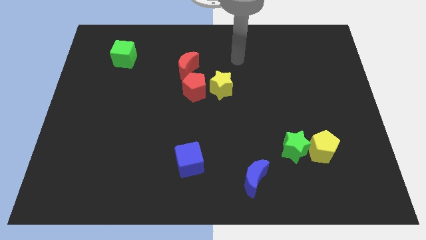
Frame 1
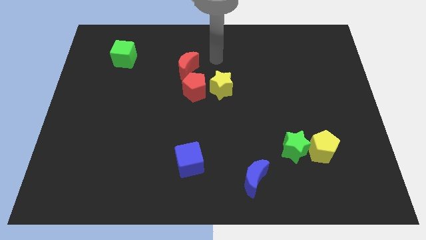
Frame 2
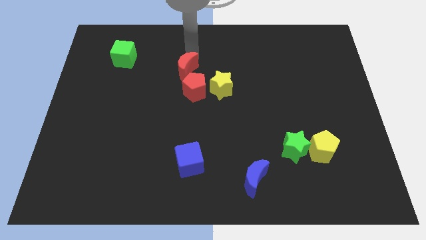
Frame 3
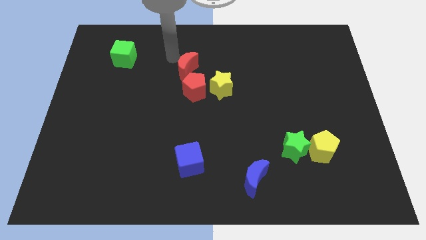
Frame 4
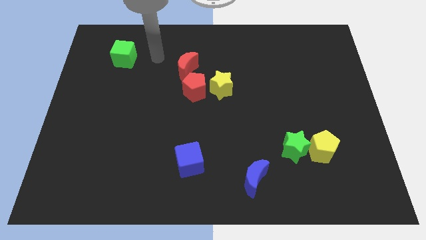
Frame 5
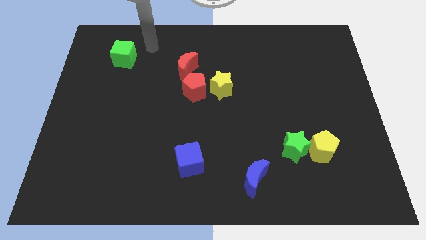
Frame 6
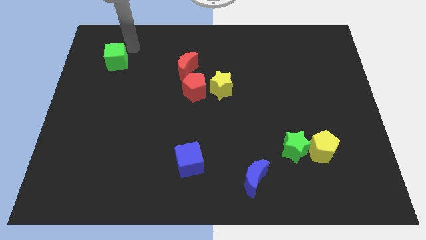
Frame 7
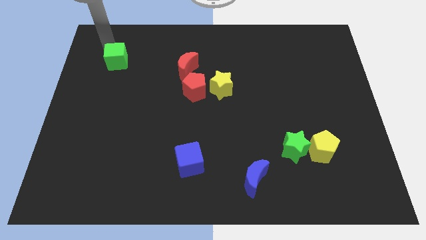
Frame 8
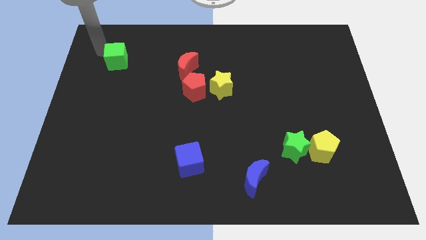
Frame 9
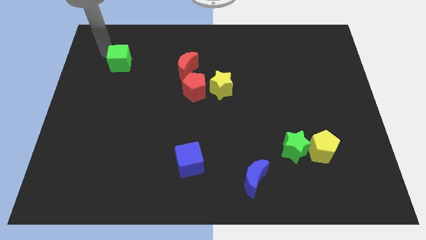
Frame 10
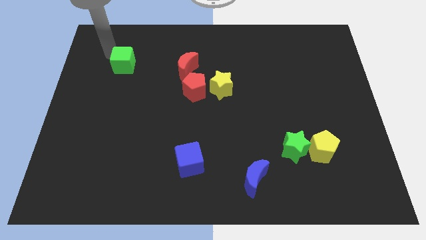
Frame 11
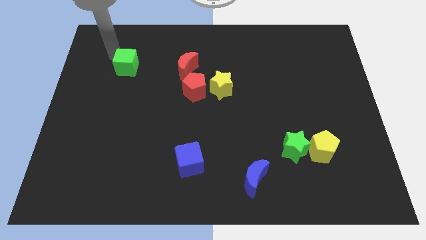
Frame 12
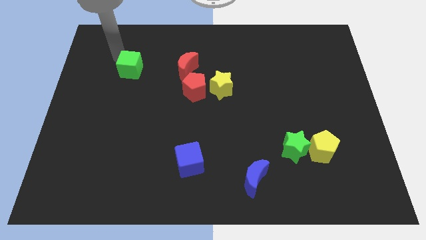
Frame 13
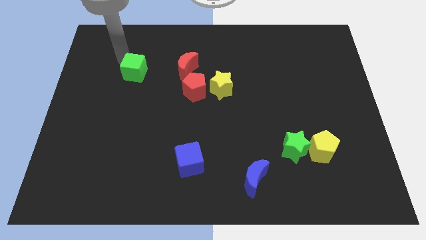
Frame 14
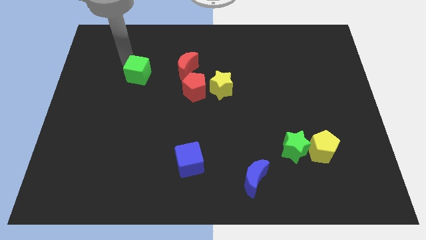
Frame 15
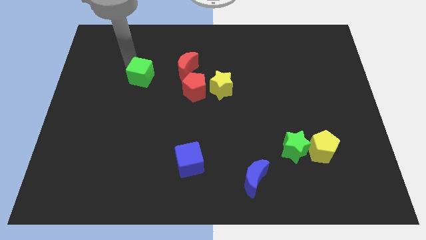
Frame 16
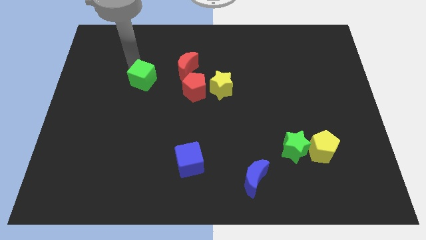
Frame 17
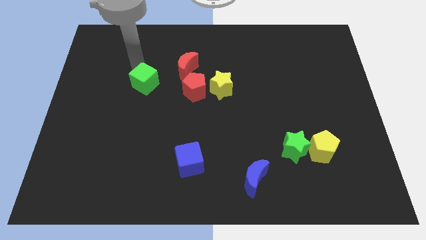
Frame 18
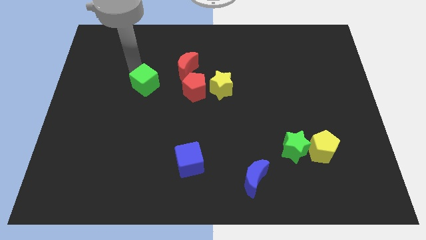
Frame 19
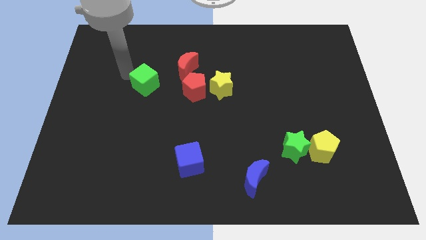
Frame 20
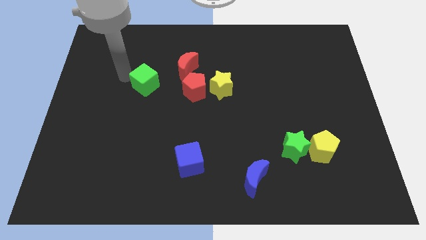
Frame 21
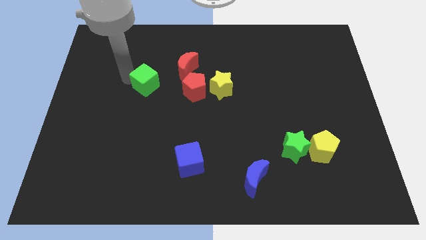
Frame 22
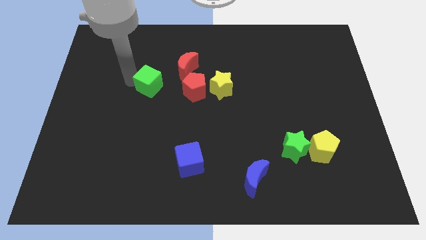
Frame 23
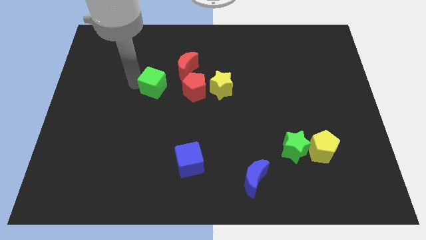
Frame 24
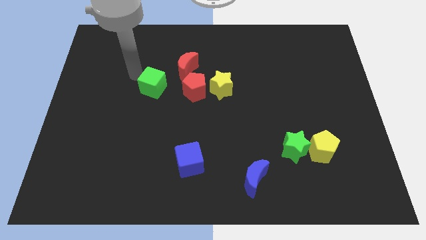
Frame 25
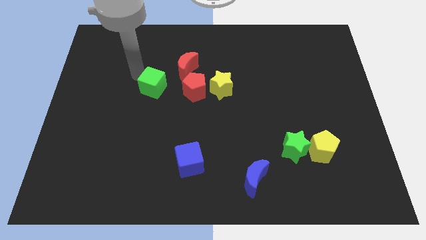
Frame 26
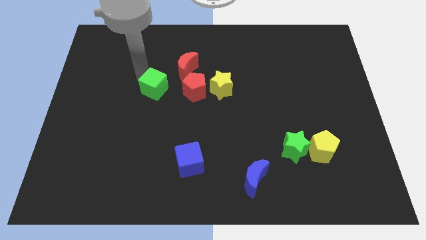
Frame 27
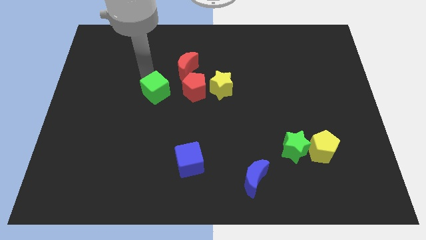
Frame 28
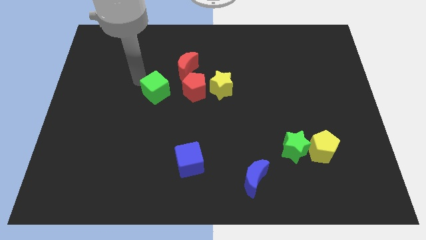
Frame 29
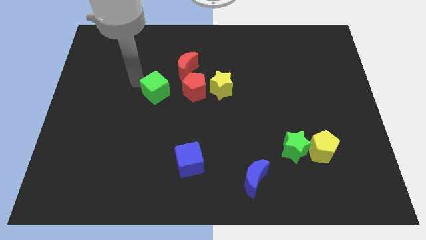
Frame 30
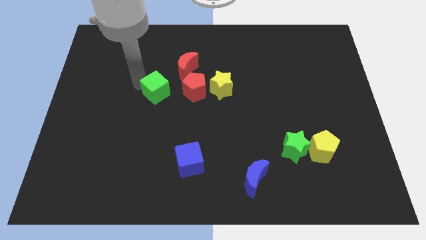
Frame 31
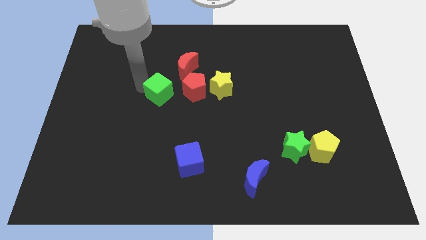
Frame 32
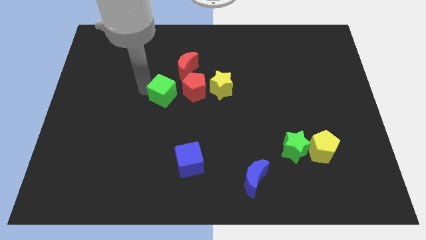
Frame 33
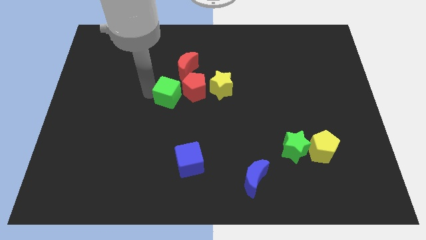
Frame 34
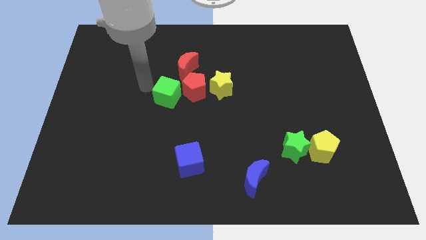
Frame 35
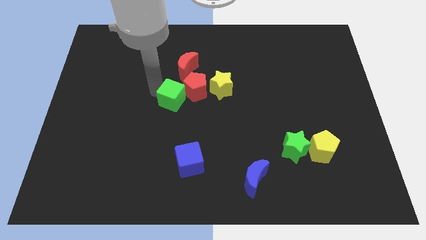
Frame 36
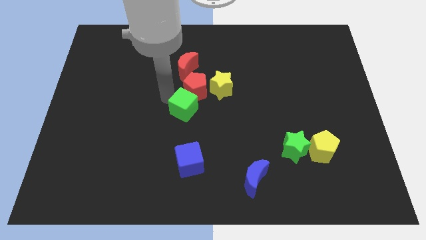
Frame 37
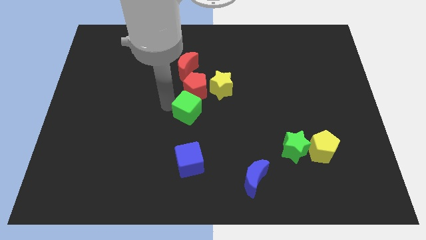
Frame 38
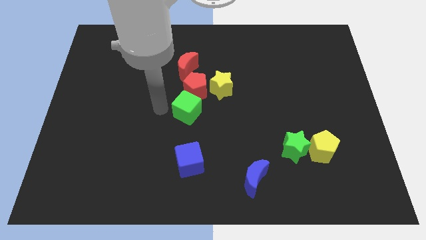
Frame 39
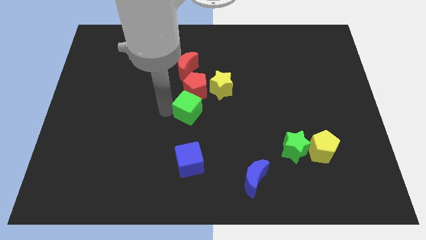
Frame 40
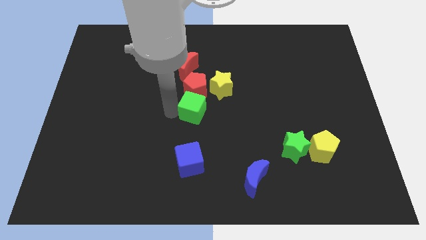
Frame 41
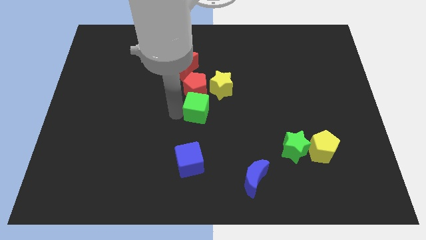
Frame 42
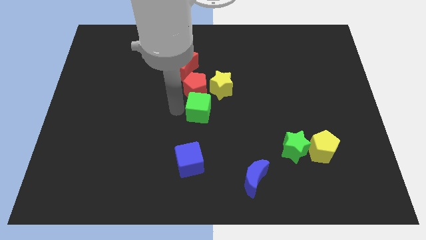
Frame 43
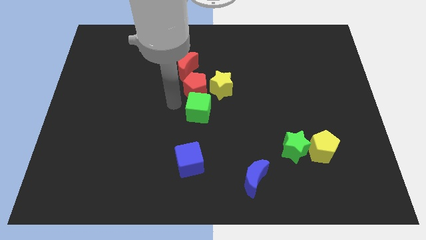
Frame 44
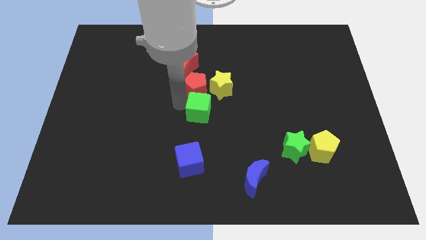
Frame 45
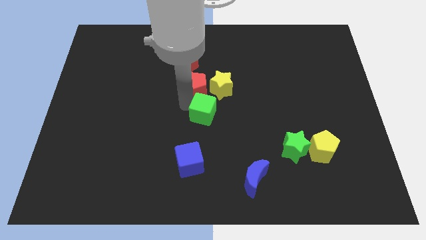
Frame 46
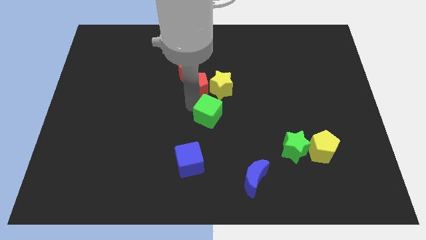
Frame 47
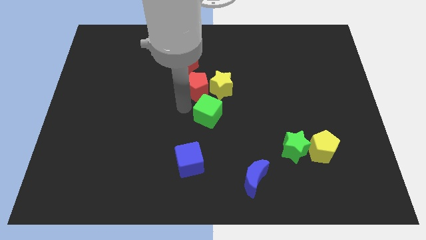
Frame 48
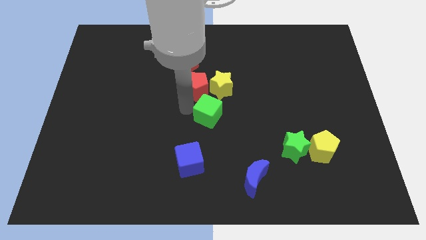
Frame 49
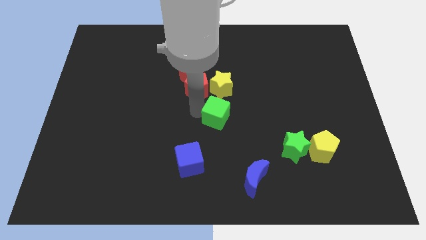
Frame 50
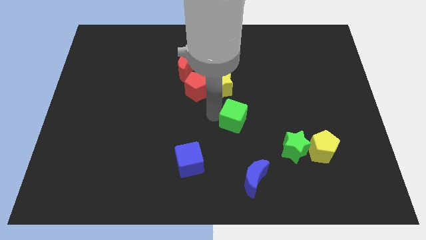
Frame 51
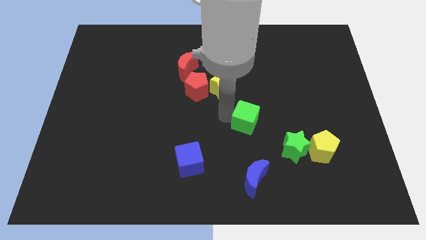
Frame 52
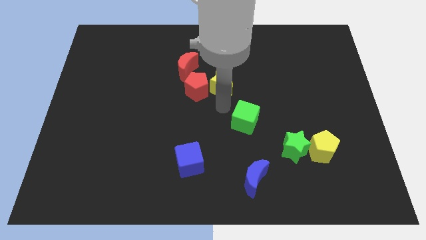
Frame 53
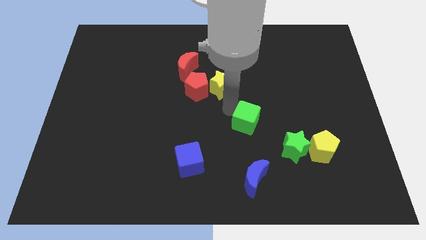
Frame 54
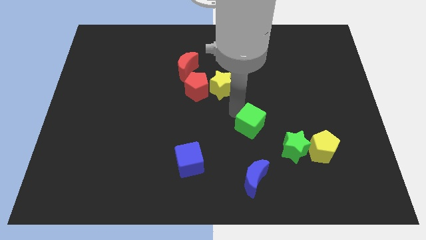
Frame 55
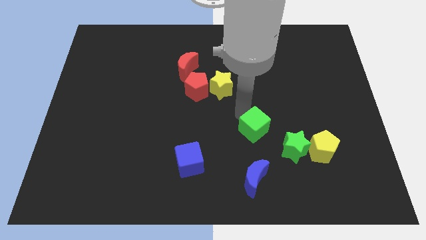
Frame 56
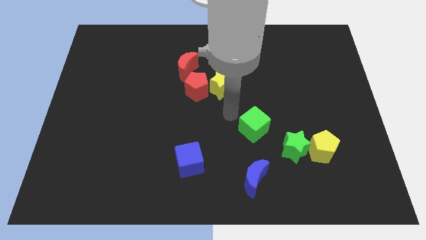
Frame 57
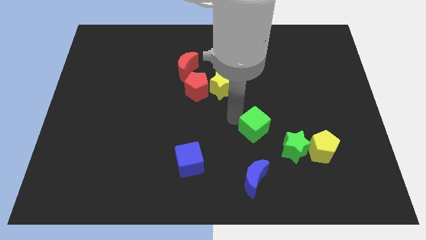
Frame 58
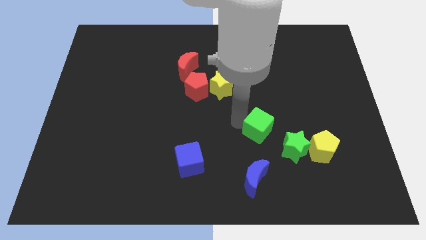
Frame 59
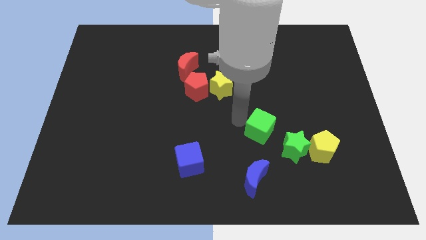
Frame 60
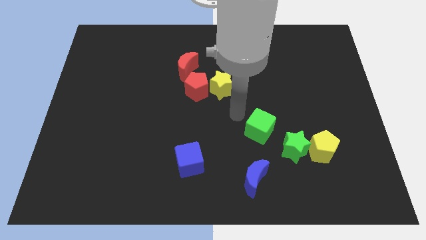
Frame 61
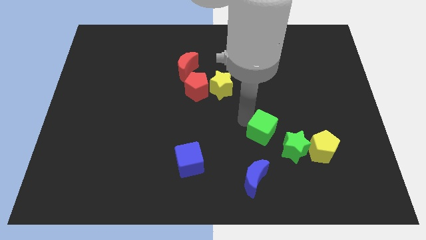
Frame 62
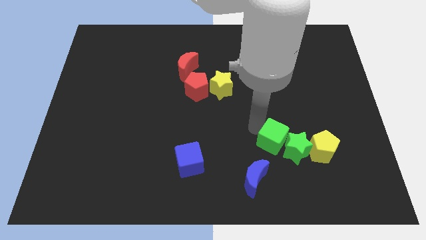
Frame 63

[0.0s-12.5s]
put the green cube close to the green star

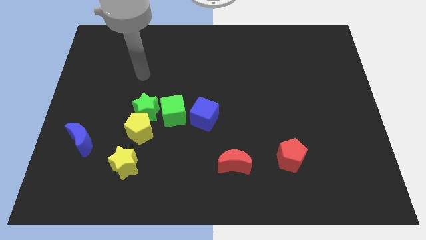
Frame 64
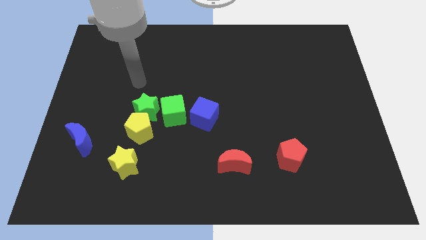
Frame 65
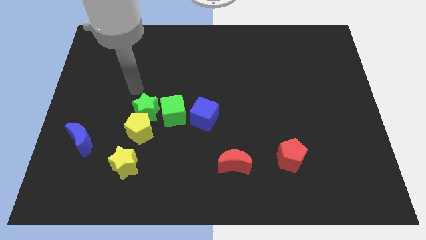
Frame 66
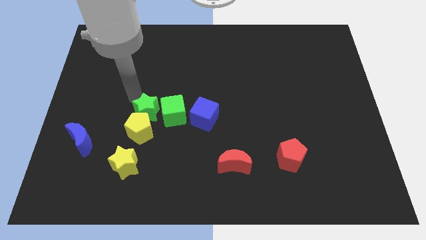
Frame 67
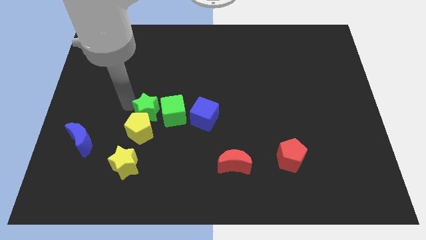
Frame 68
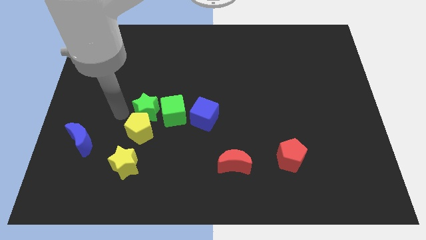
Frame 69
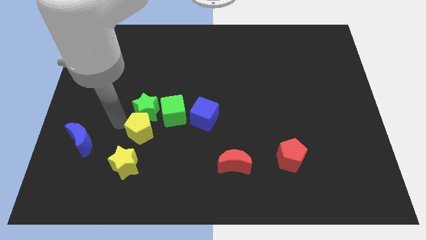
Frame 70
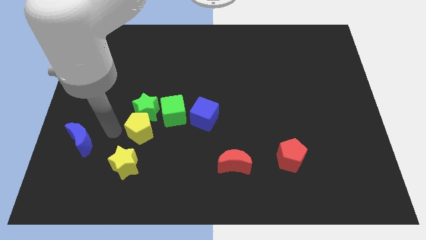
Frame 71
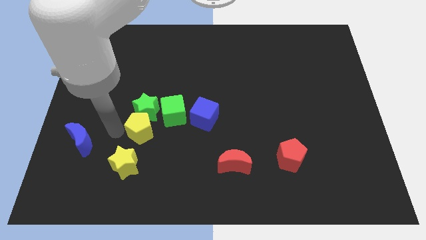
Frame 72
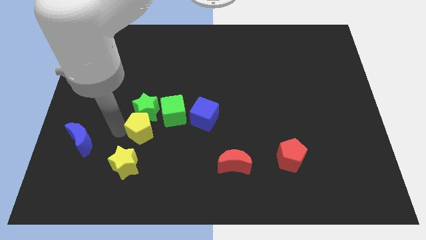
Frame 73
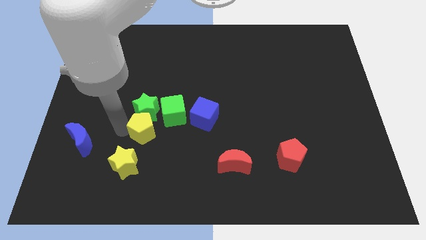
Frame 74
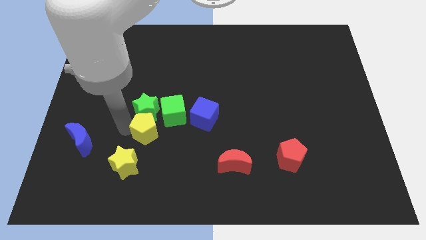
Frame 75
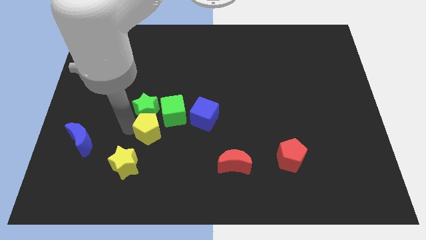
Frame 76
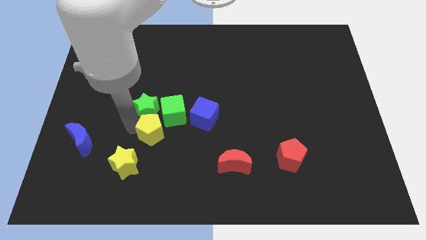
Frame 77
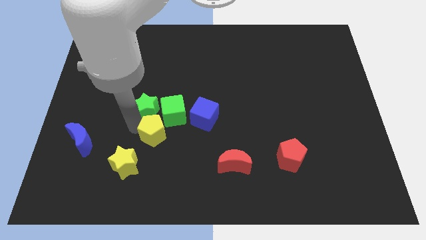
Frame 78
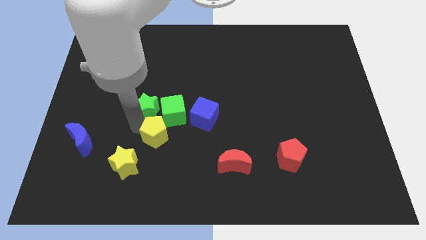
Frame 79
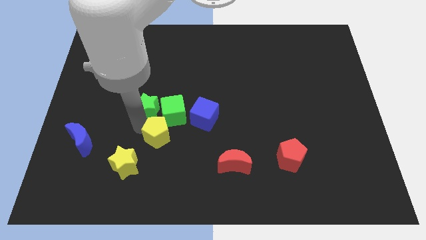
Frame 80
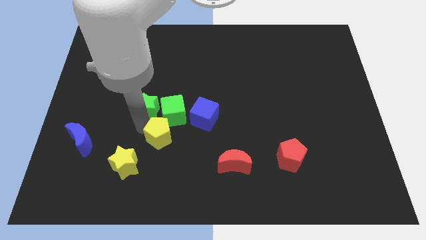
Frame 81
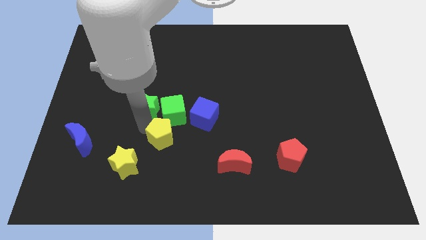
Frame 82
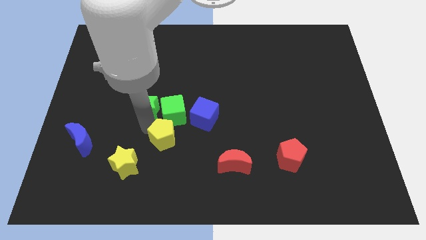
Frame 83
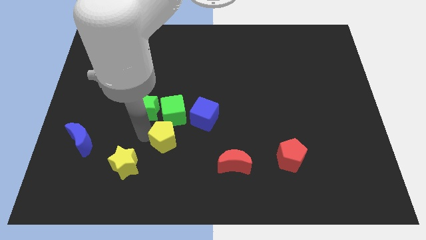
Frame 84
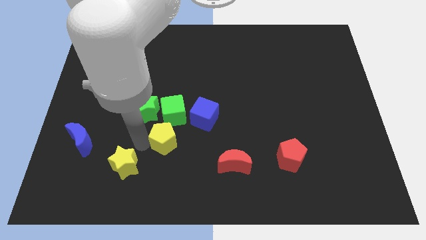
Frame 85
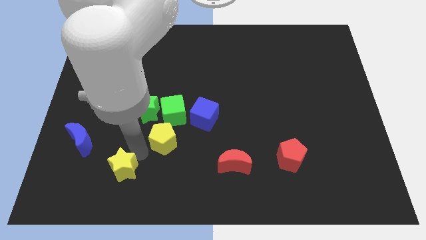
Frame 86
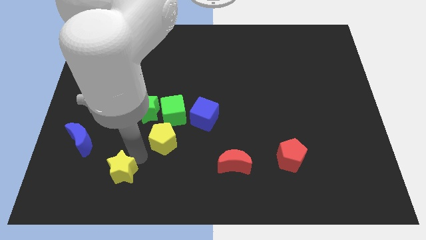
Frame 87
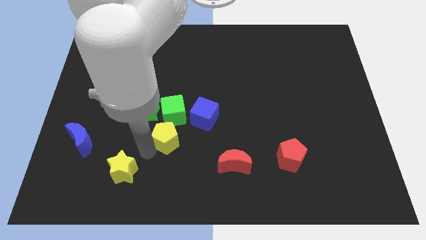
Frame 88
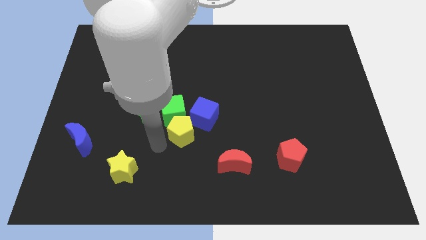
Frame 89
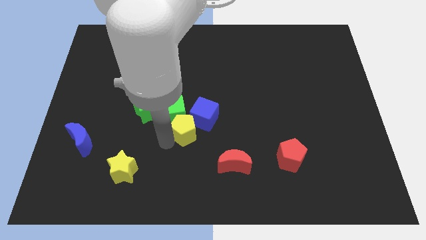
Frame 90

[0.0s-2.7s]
slide the yellow pentagon towards the blue cube
